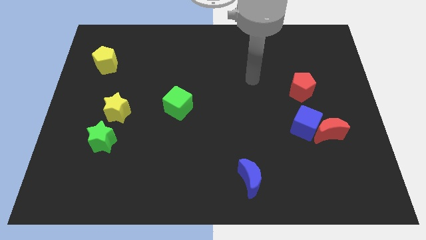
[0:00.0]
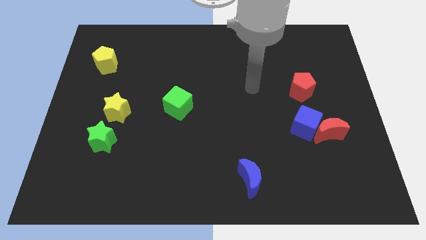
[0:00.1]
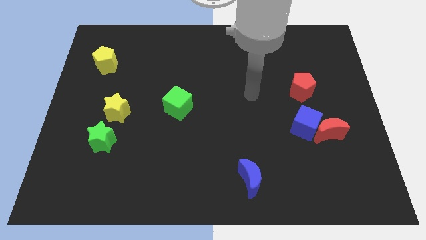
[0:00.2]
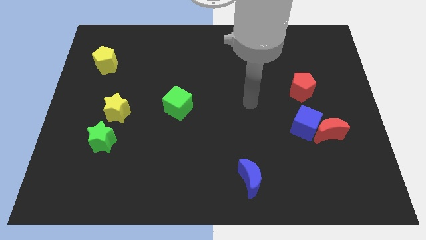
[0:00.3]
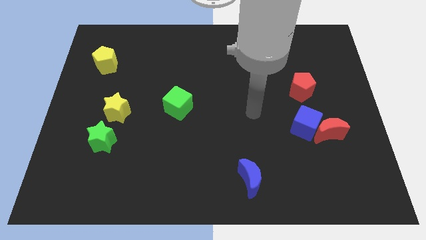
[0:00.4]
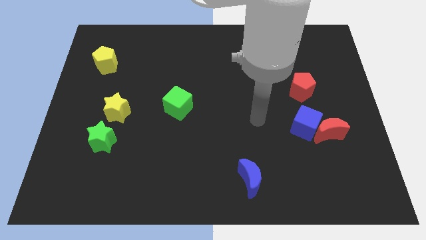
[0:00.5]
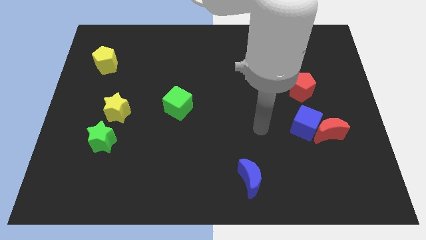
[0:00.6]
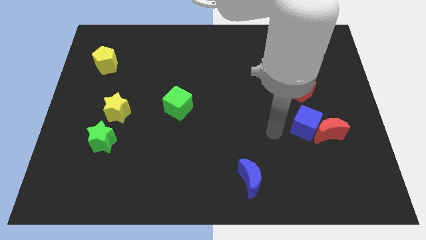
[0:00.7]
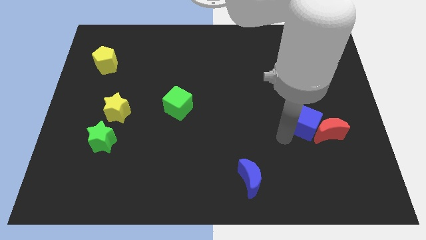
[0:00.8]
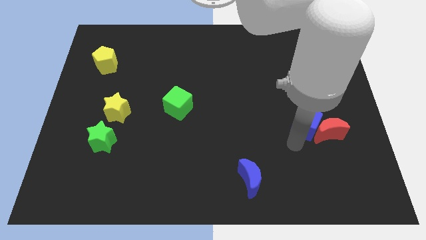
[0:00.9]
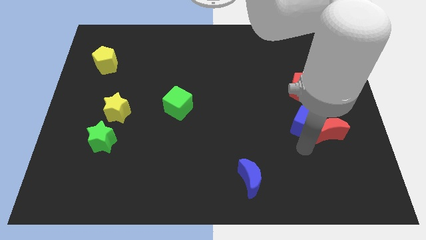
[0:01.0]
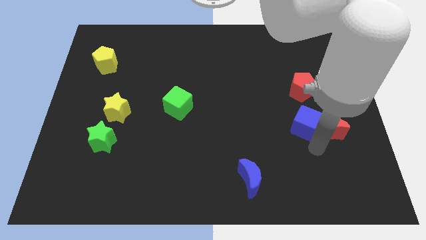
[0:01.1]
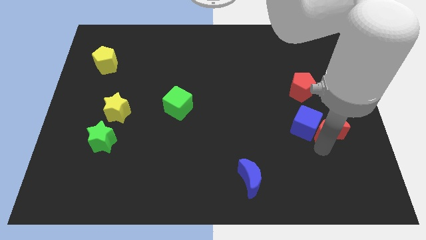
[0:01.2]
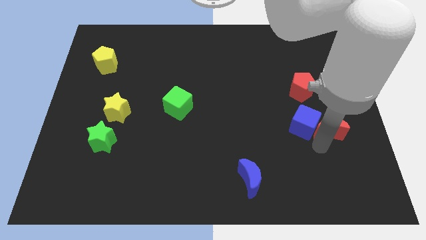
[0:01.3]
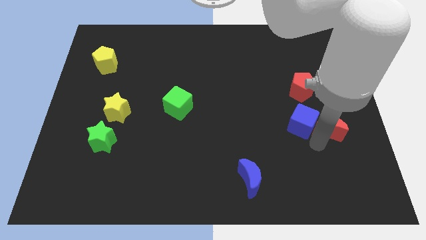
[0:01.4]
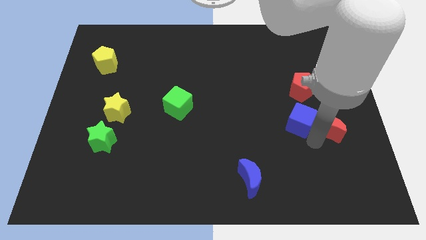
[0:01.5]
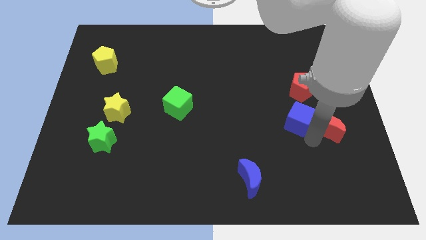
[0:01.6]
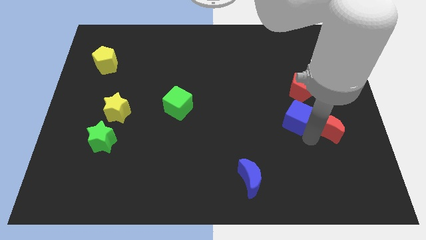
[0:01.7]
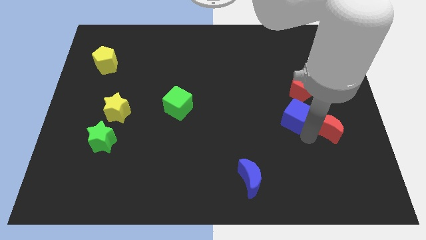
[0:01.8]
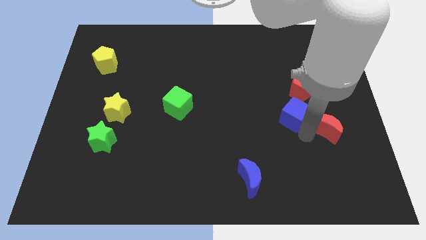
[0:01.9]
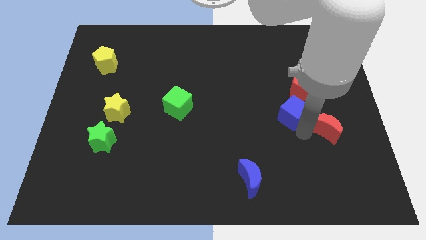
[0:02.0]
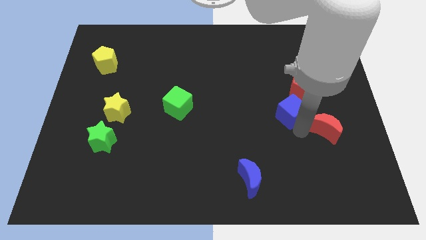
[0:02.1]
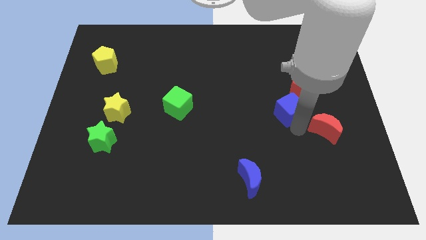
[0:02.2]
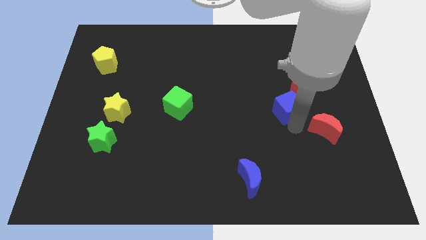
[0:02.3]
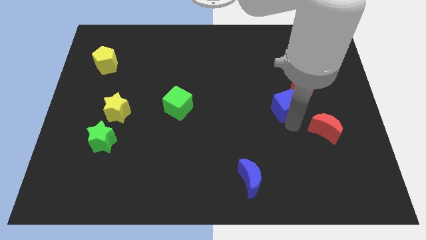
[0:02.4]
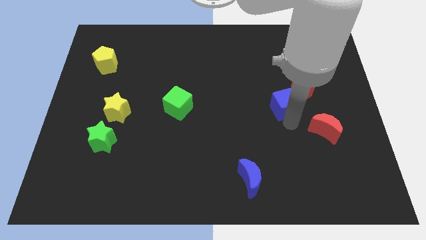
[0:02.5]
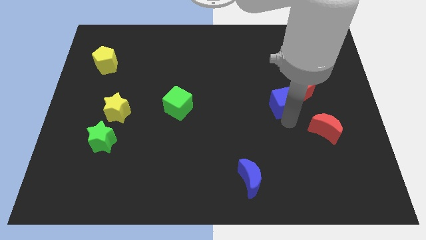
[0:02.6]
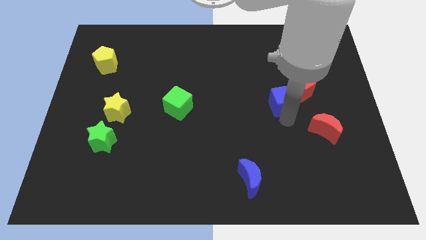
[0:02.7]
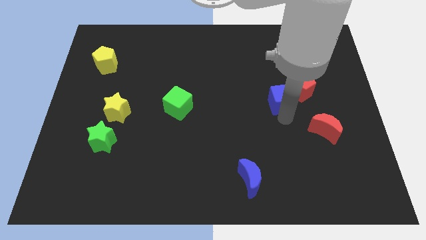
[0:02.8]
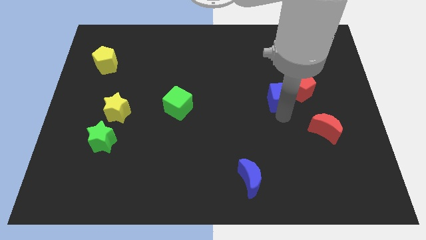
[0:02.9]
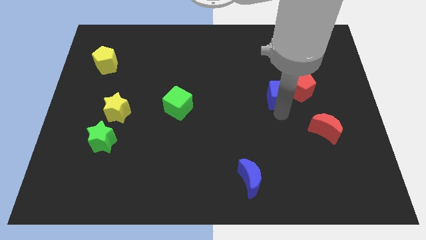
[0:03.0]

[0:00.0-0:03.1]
slide the blue cube upwards a bit

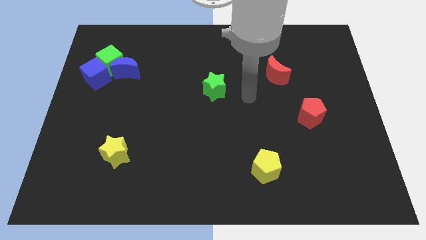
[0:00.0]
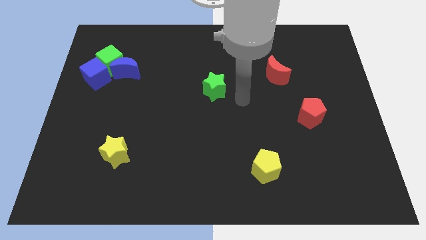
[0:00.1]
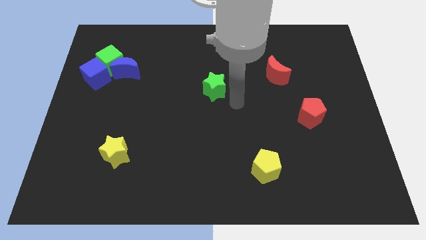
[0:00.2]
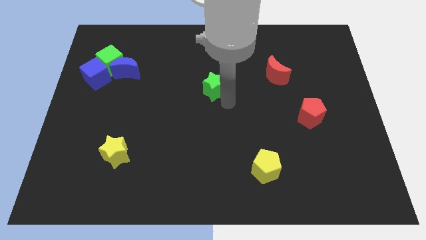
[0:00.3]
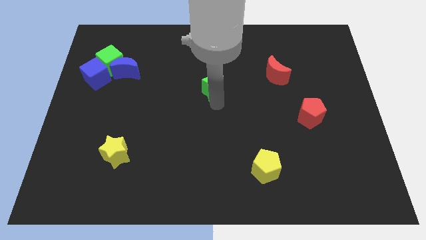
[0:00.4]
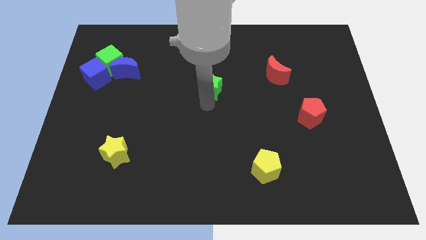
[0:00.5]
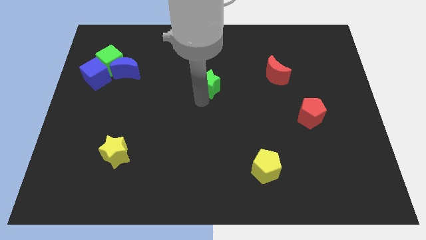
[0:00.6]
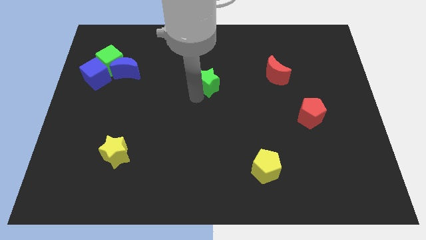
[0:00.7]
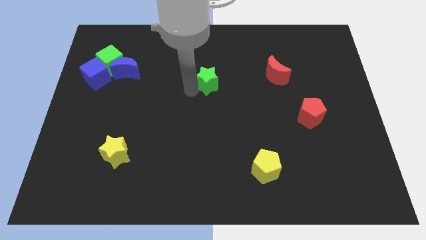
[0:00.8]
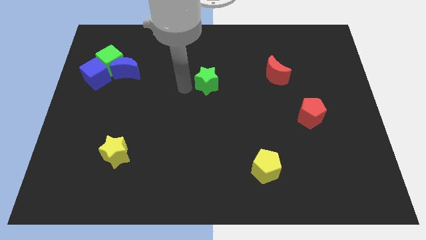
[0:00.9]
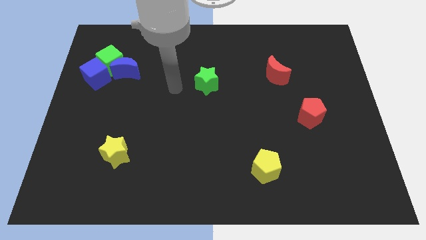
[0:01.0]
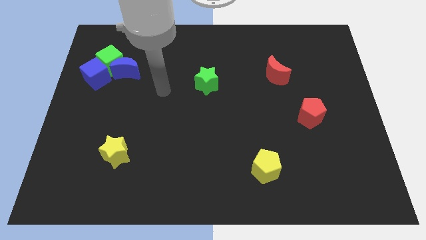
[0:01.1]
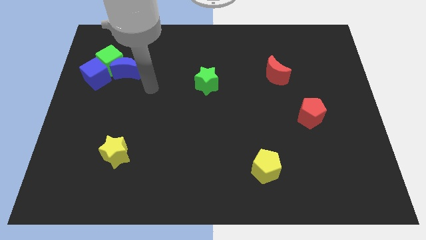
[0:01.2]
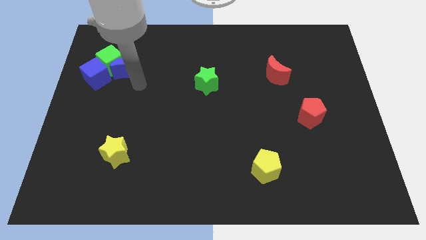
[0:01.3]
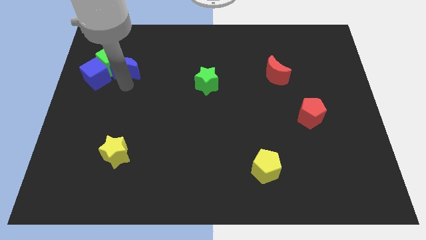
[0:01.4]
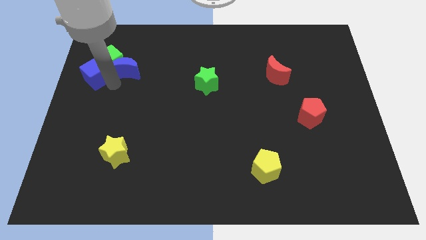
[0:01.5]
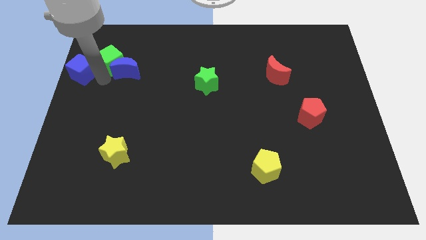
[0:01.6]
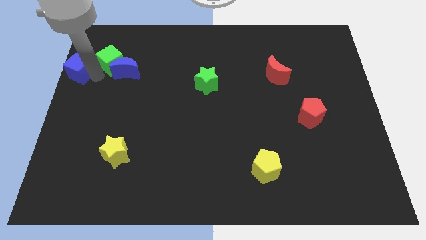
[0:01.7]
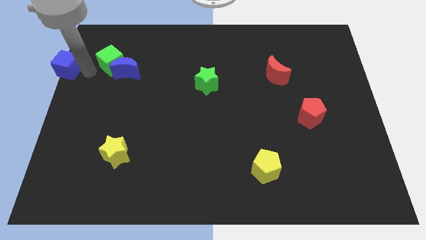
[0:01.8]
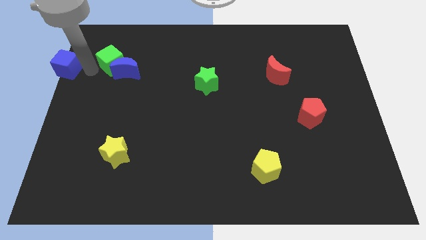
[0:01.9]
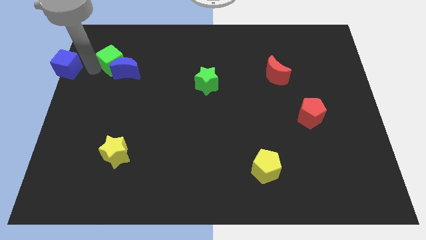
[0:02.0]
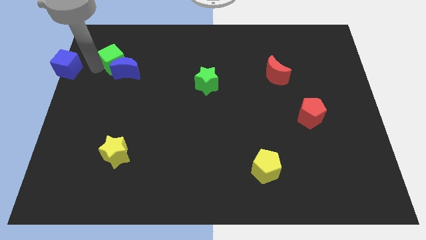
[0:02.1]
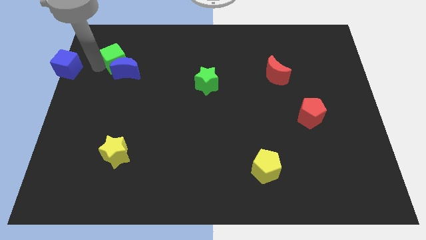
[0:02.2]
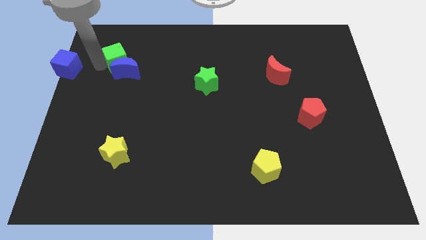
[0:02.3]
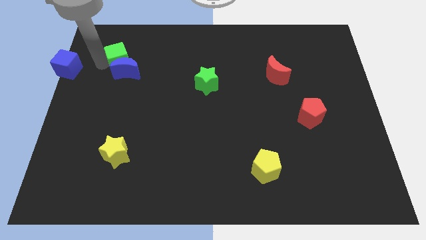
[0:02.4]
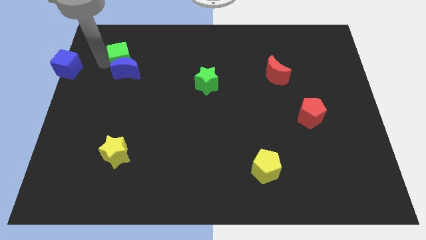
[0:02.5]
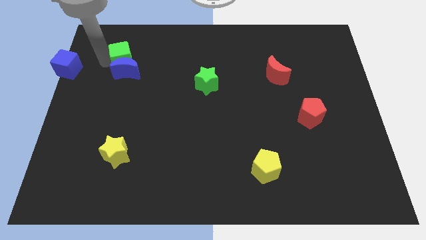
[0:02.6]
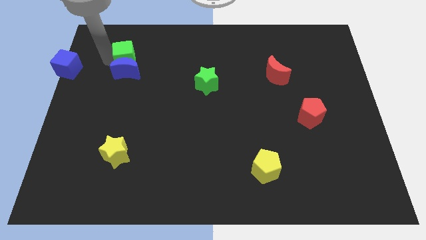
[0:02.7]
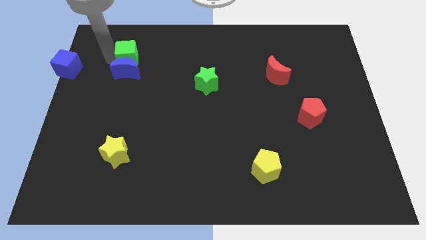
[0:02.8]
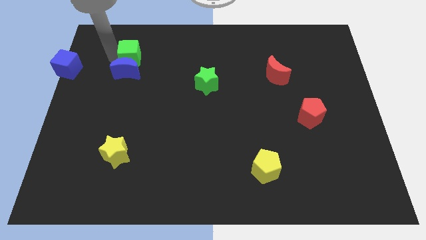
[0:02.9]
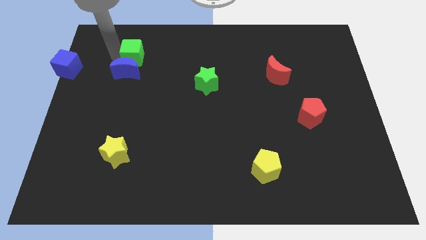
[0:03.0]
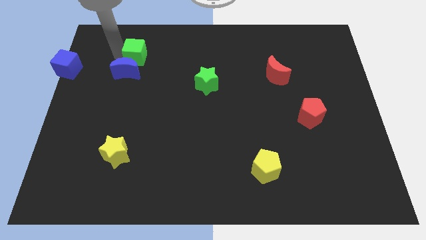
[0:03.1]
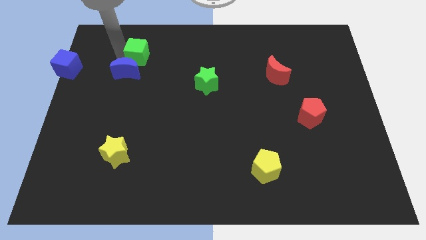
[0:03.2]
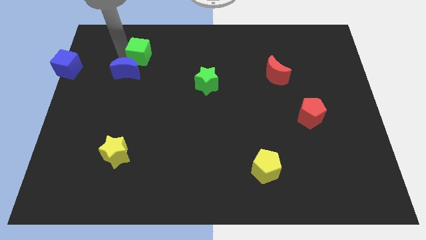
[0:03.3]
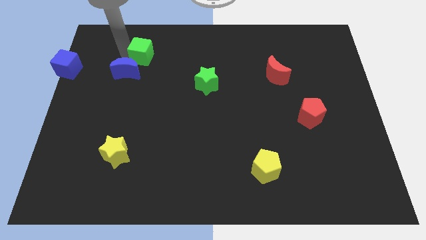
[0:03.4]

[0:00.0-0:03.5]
push the green cube a little bit right

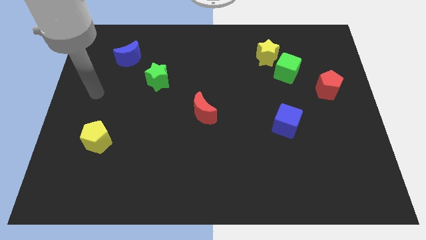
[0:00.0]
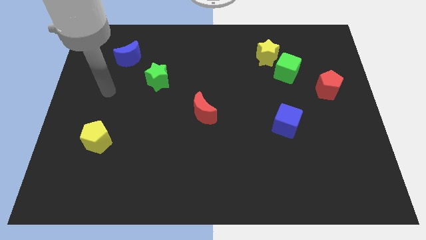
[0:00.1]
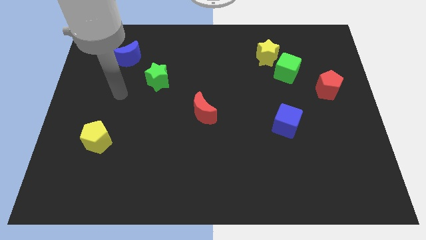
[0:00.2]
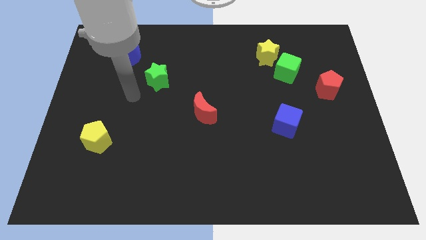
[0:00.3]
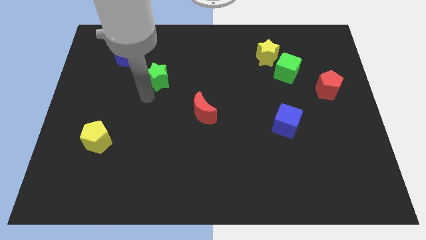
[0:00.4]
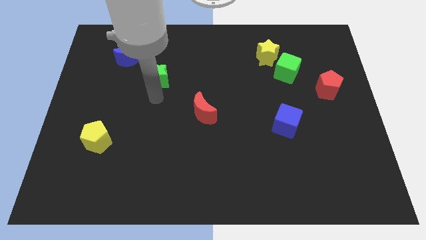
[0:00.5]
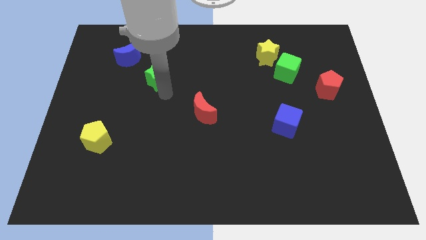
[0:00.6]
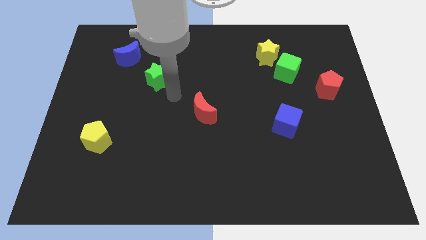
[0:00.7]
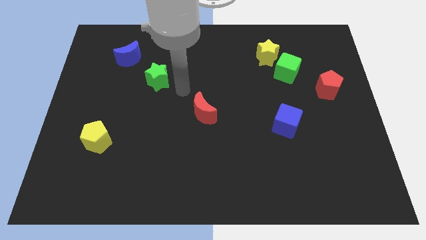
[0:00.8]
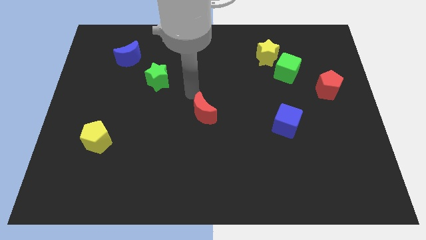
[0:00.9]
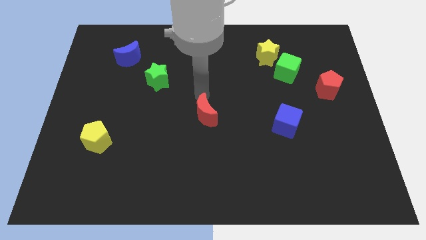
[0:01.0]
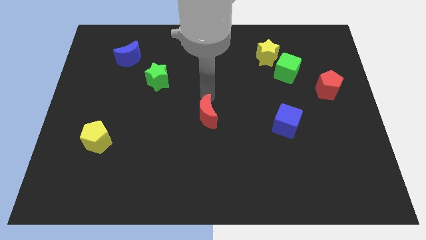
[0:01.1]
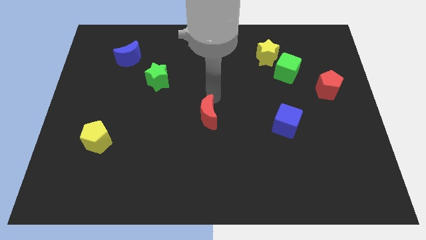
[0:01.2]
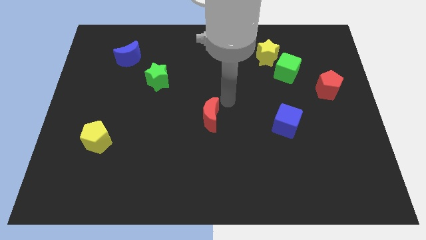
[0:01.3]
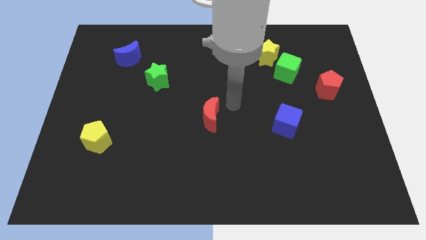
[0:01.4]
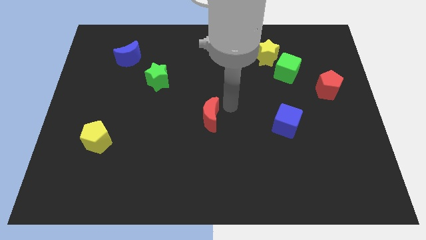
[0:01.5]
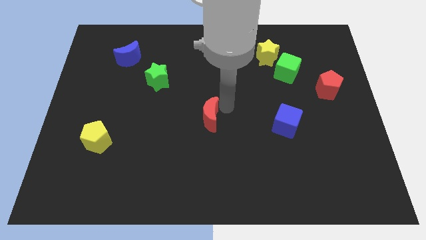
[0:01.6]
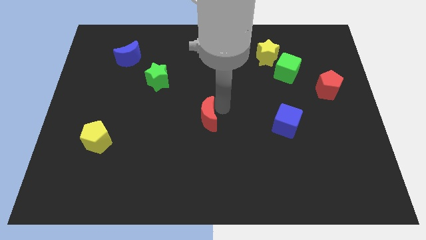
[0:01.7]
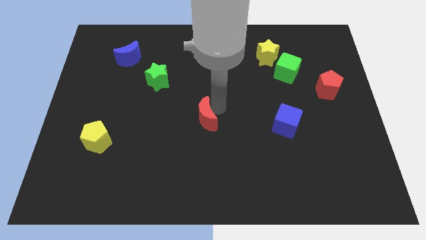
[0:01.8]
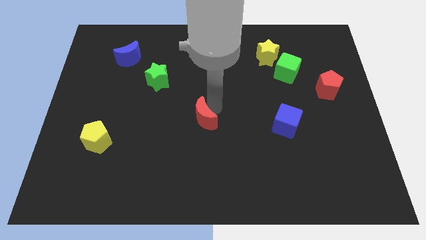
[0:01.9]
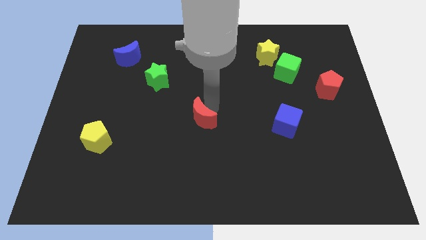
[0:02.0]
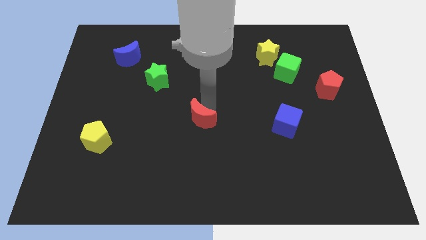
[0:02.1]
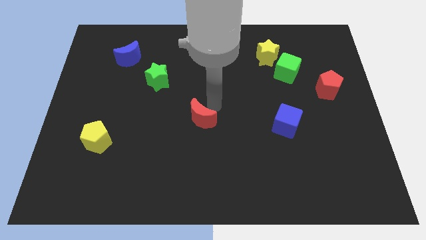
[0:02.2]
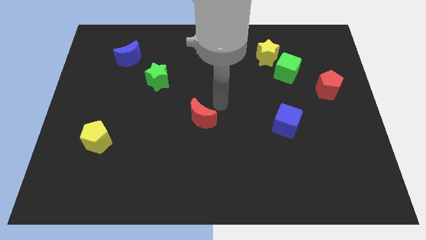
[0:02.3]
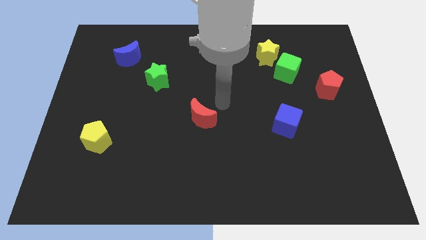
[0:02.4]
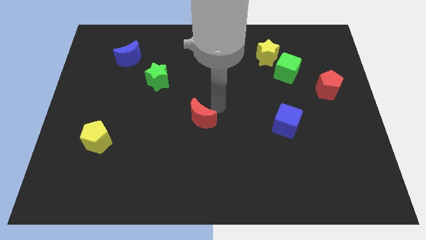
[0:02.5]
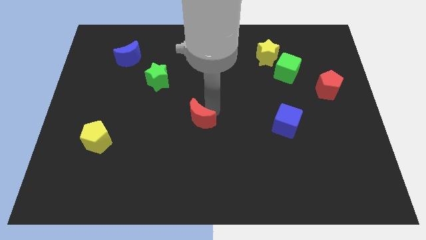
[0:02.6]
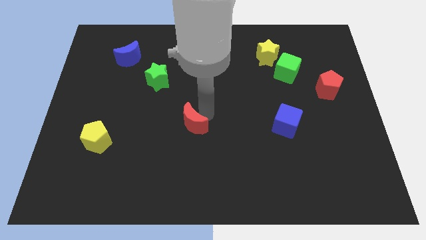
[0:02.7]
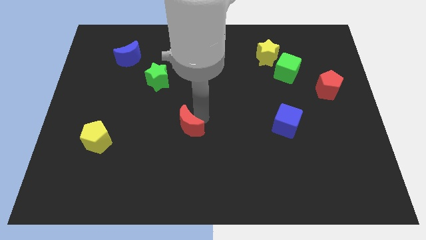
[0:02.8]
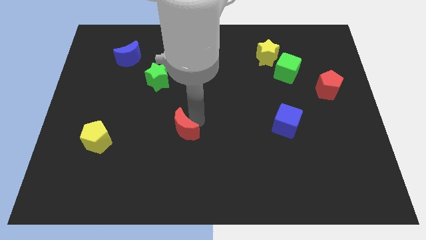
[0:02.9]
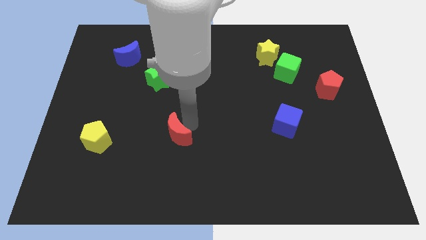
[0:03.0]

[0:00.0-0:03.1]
slide the red moon a bit diagonally downwards and left
